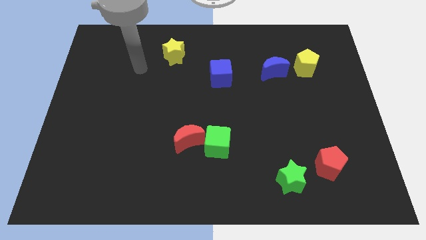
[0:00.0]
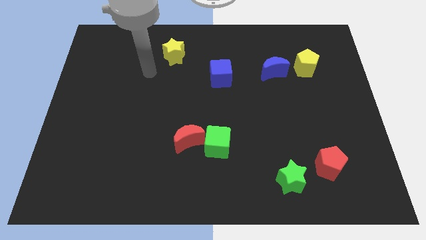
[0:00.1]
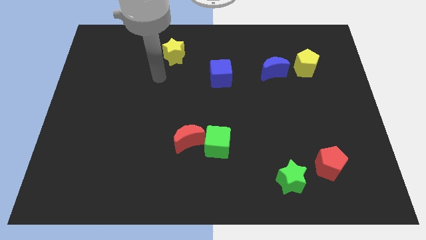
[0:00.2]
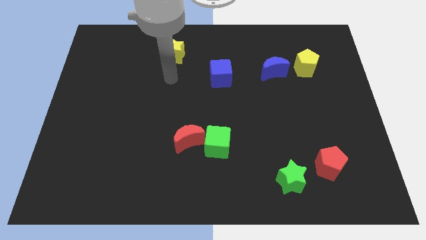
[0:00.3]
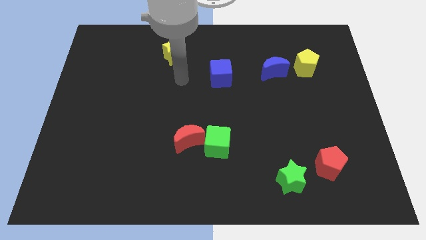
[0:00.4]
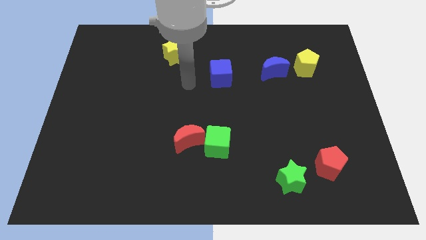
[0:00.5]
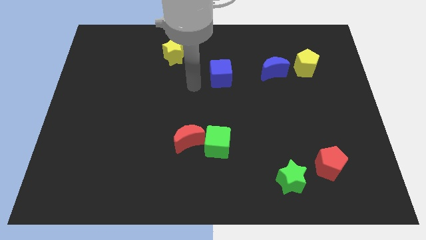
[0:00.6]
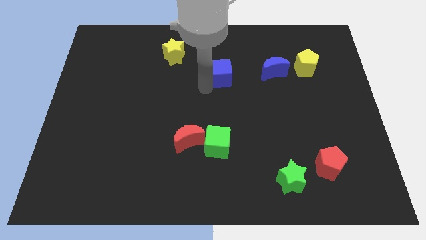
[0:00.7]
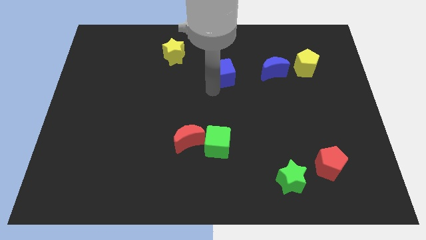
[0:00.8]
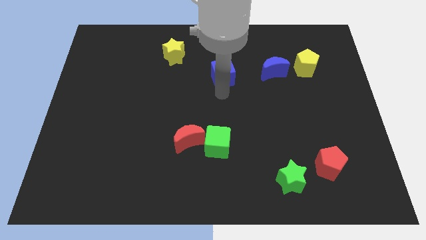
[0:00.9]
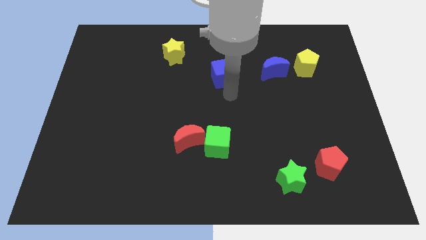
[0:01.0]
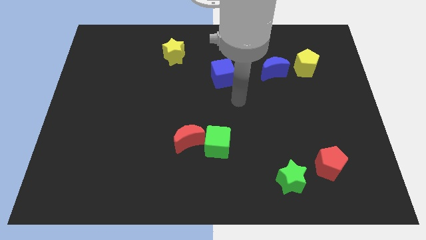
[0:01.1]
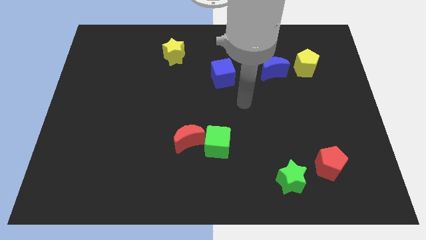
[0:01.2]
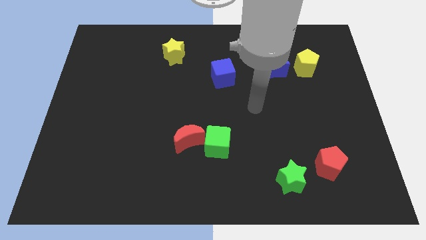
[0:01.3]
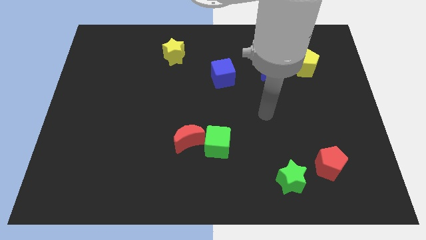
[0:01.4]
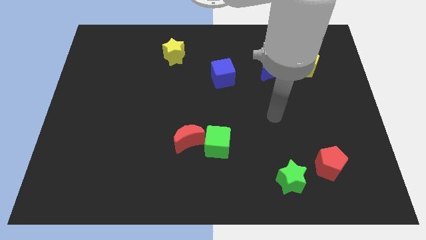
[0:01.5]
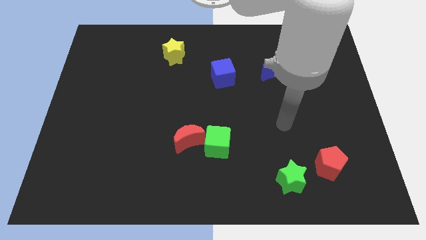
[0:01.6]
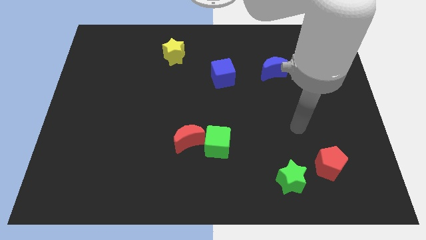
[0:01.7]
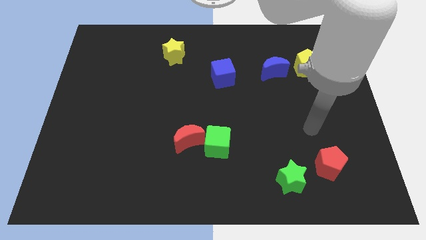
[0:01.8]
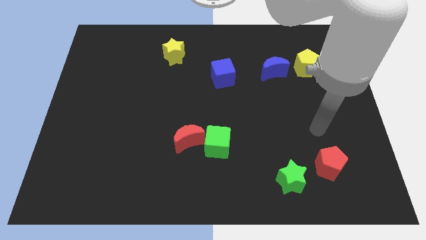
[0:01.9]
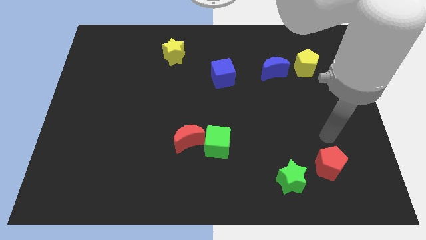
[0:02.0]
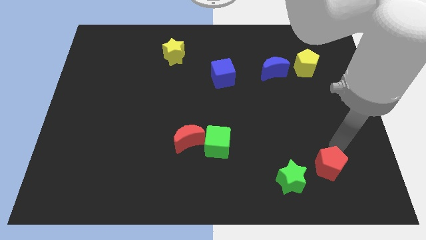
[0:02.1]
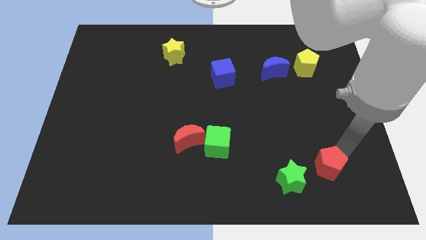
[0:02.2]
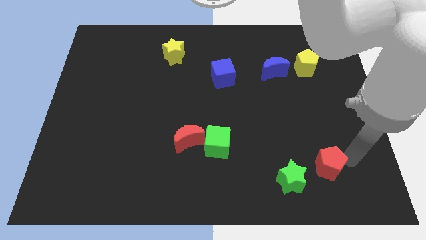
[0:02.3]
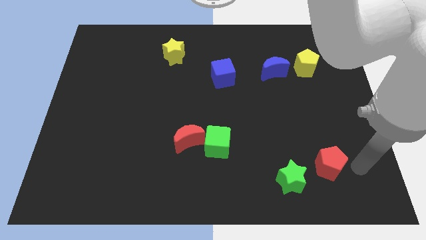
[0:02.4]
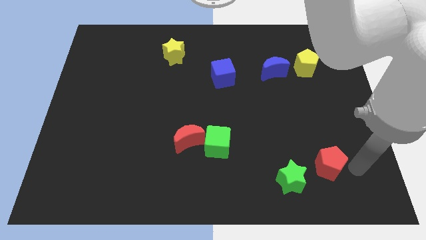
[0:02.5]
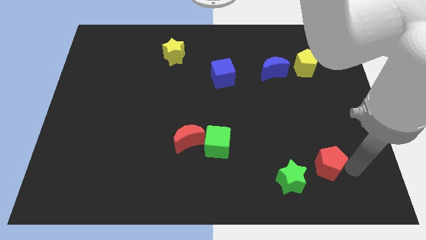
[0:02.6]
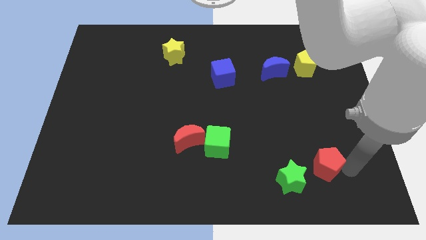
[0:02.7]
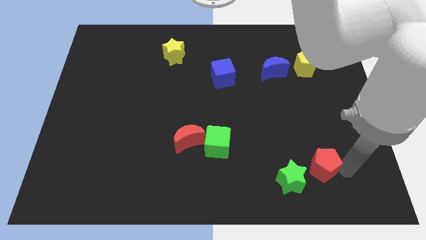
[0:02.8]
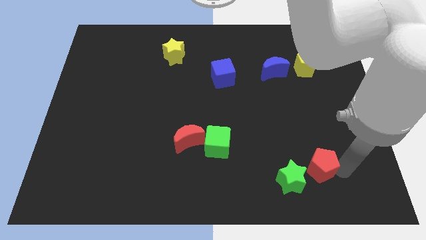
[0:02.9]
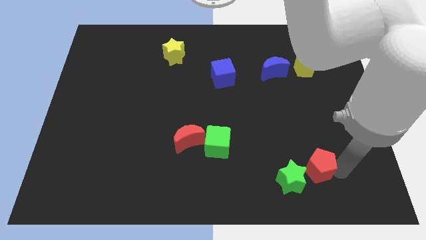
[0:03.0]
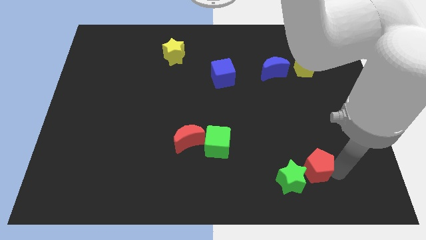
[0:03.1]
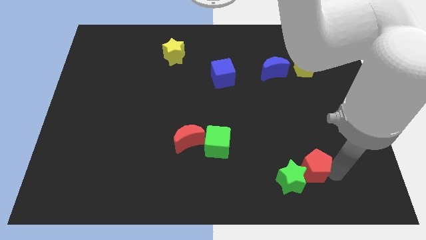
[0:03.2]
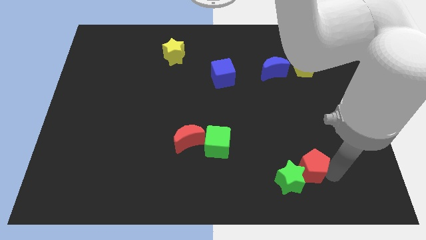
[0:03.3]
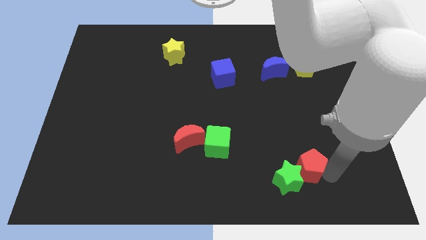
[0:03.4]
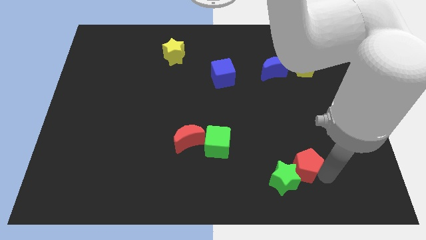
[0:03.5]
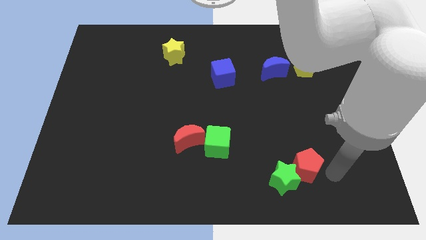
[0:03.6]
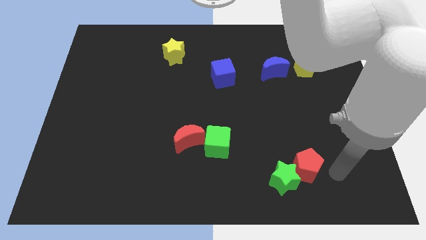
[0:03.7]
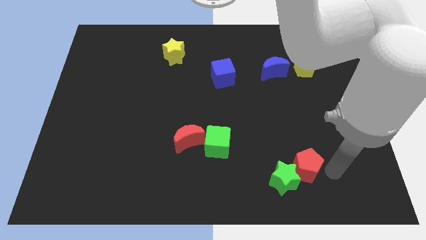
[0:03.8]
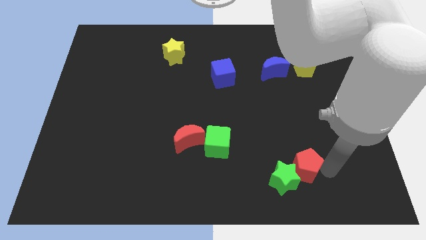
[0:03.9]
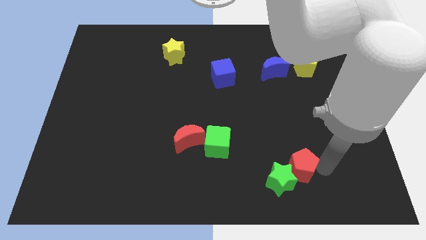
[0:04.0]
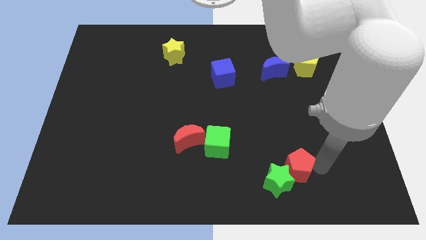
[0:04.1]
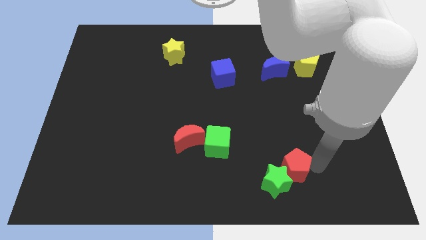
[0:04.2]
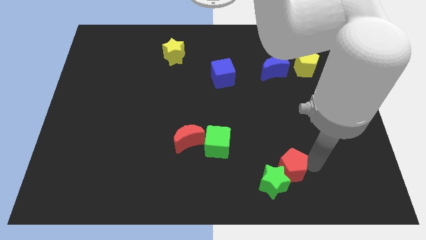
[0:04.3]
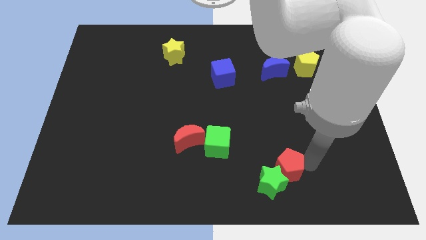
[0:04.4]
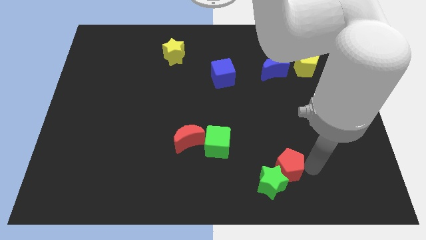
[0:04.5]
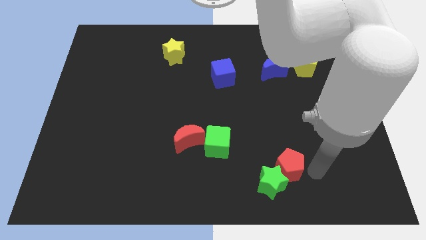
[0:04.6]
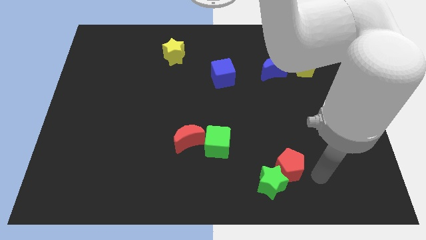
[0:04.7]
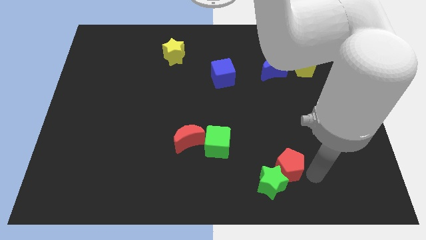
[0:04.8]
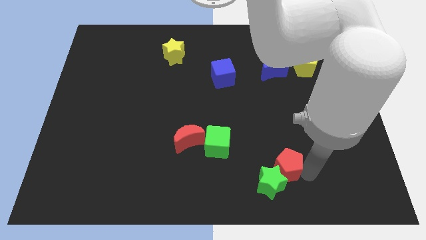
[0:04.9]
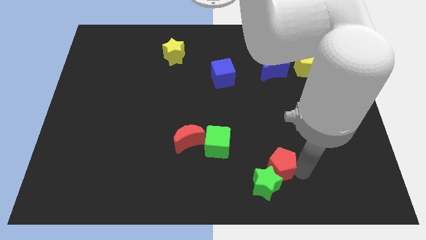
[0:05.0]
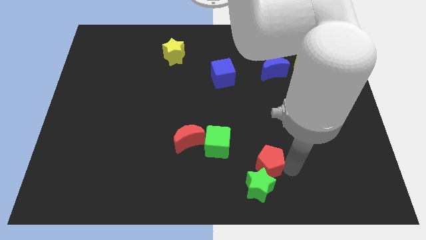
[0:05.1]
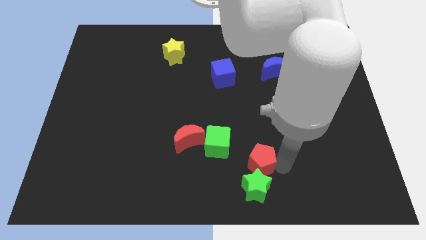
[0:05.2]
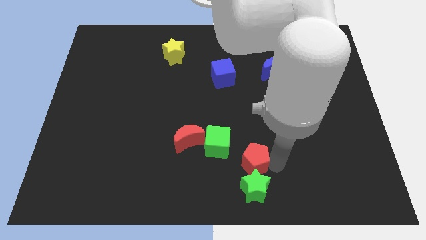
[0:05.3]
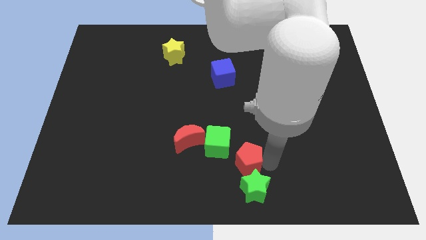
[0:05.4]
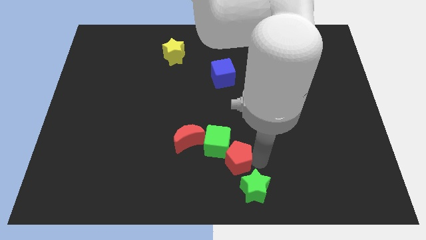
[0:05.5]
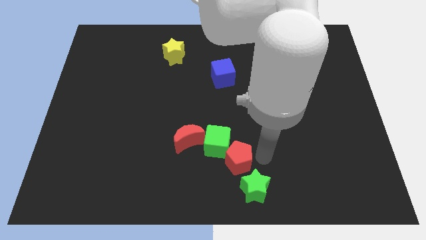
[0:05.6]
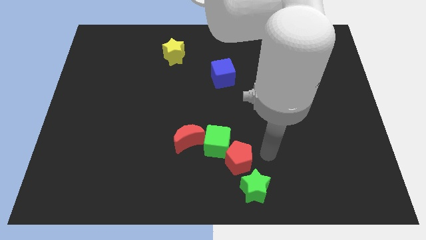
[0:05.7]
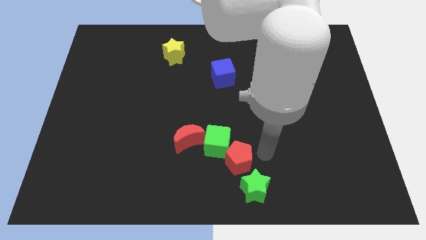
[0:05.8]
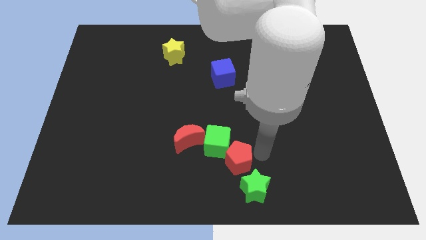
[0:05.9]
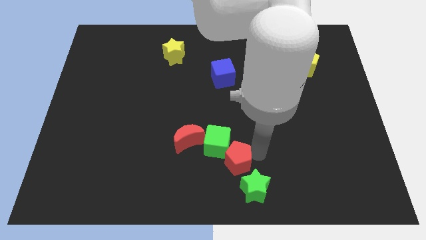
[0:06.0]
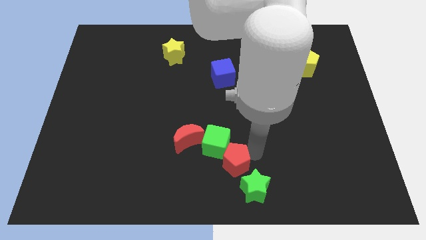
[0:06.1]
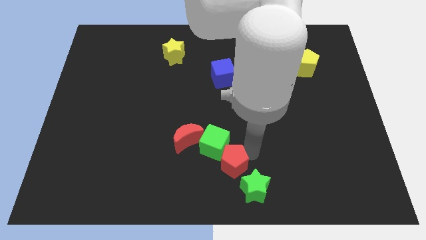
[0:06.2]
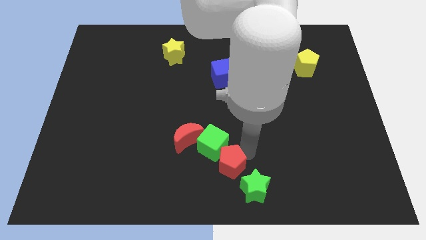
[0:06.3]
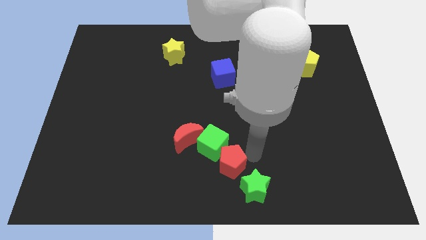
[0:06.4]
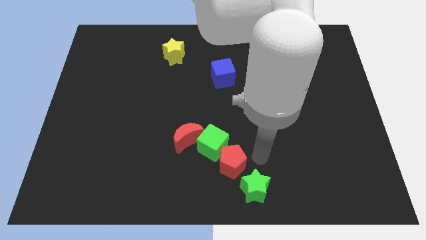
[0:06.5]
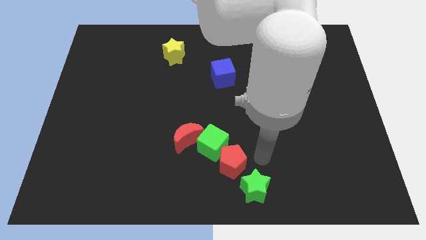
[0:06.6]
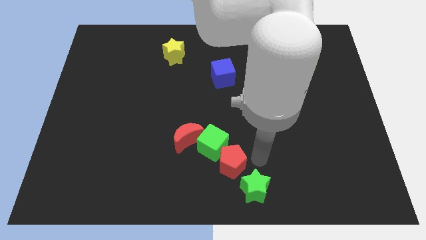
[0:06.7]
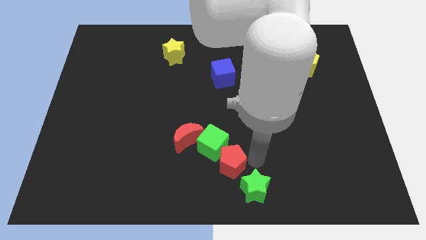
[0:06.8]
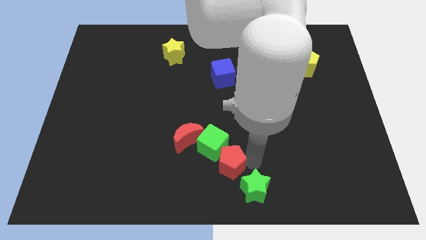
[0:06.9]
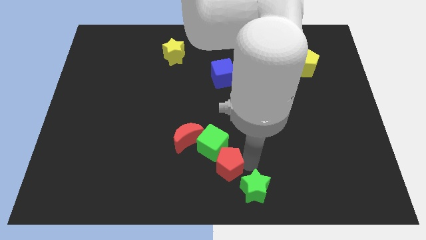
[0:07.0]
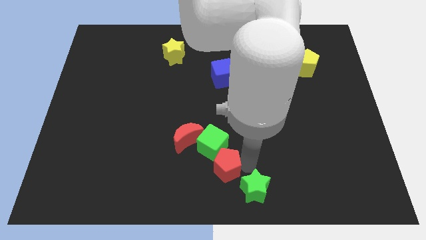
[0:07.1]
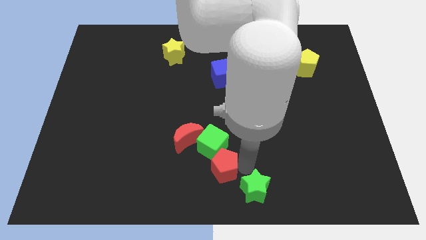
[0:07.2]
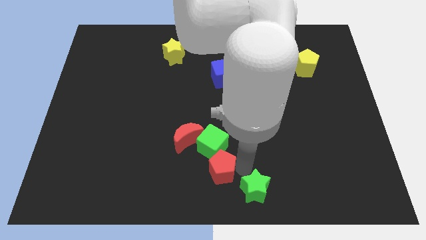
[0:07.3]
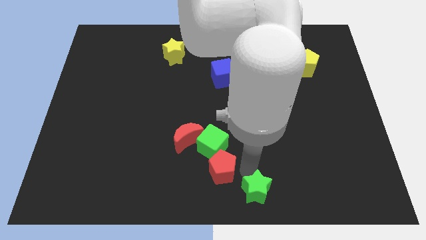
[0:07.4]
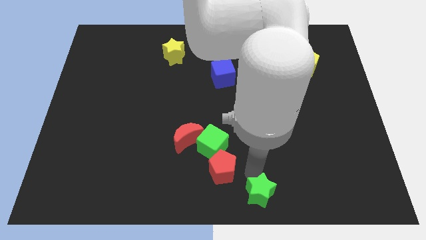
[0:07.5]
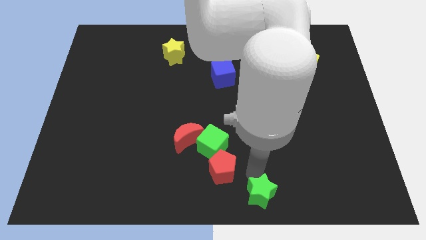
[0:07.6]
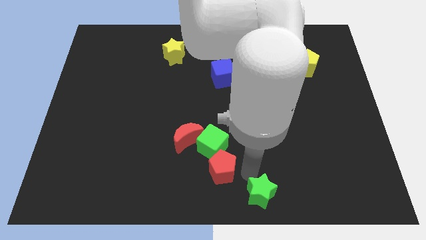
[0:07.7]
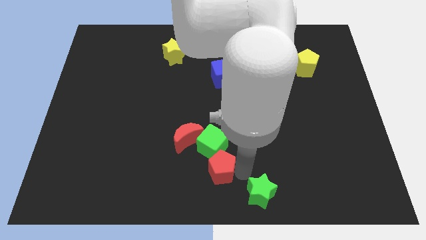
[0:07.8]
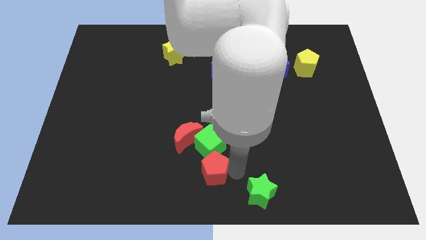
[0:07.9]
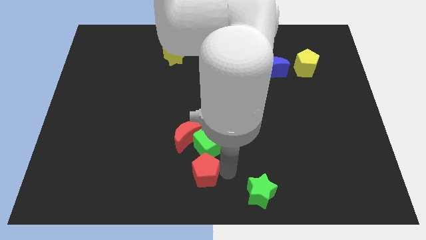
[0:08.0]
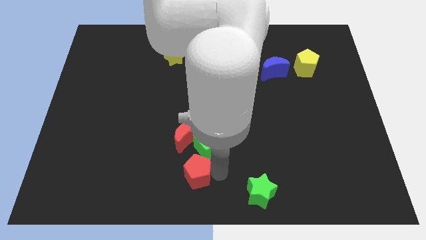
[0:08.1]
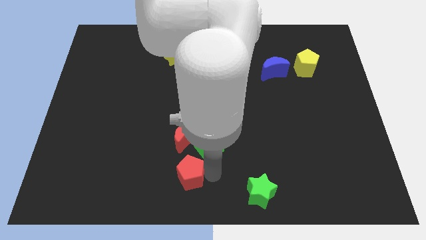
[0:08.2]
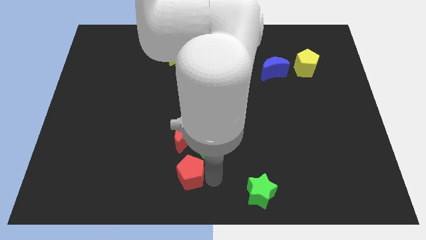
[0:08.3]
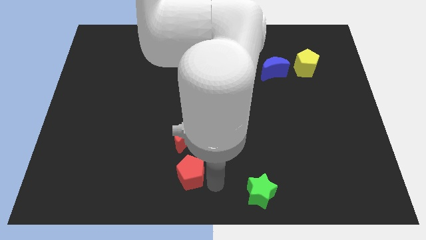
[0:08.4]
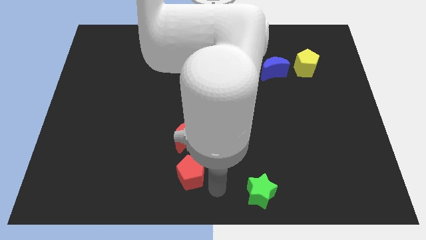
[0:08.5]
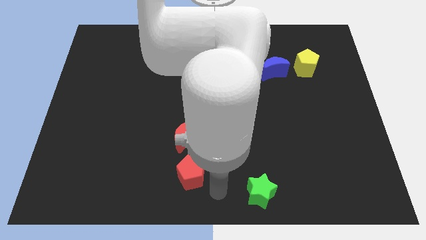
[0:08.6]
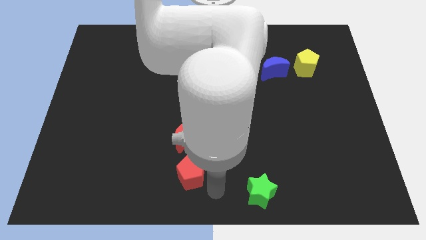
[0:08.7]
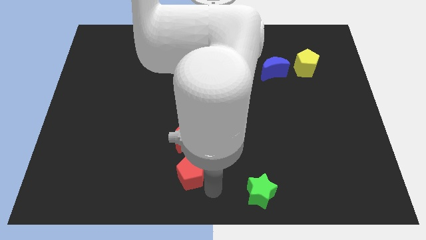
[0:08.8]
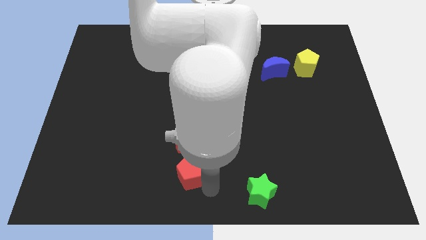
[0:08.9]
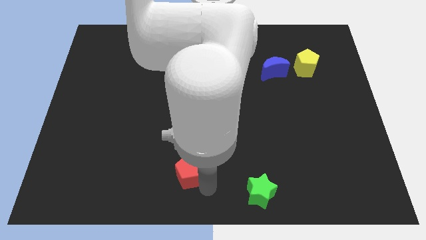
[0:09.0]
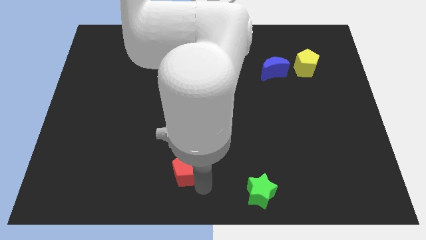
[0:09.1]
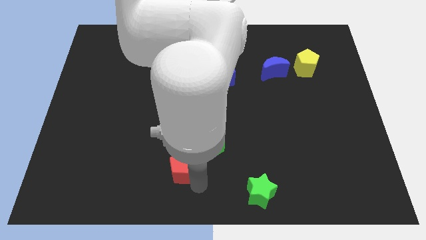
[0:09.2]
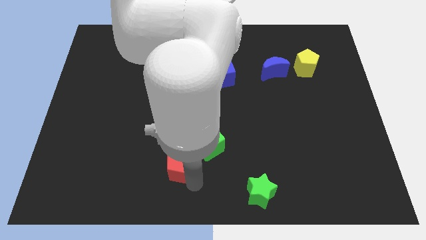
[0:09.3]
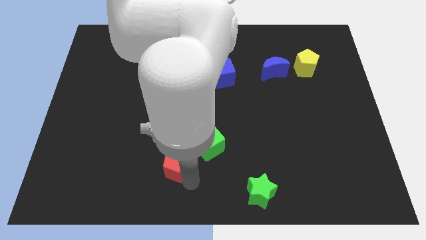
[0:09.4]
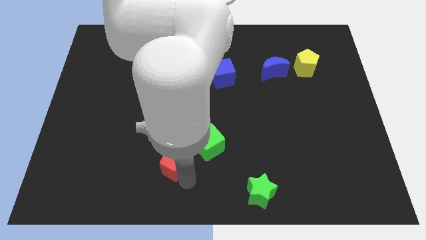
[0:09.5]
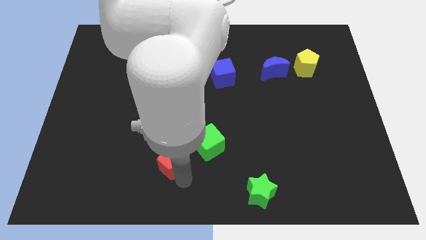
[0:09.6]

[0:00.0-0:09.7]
put the red pentagon just left of the green cube
